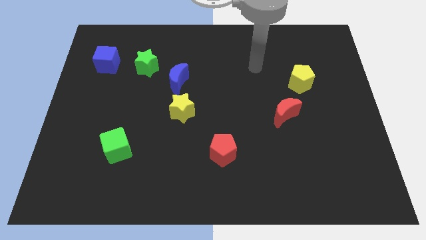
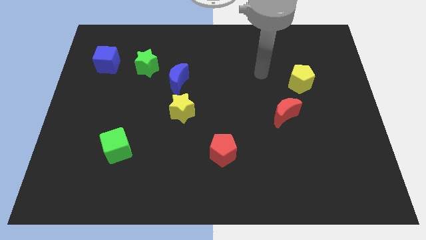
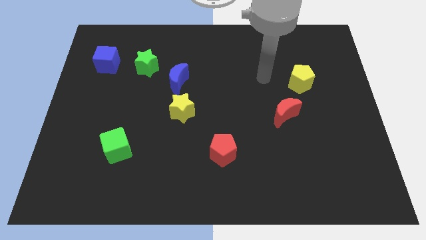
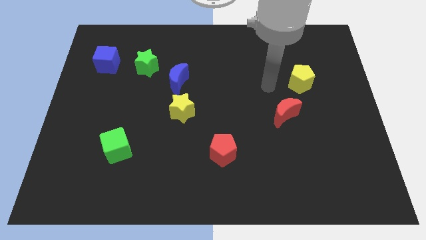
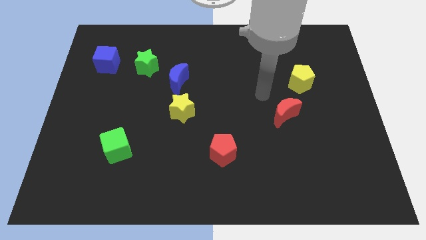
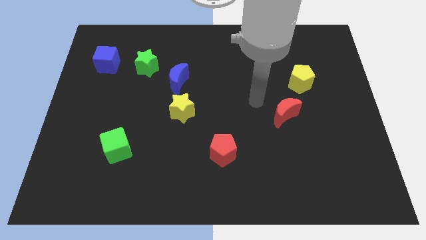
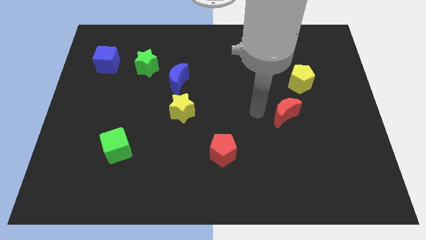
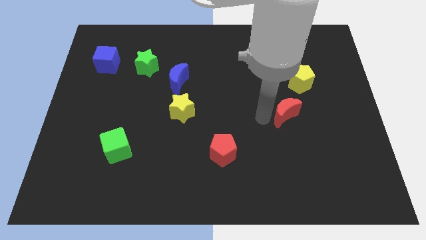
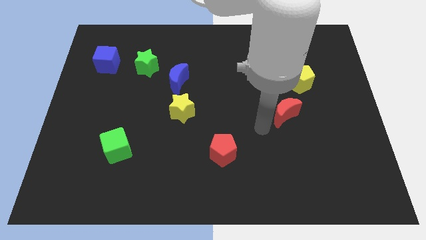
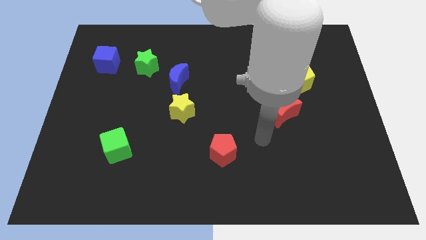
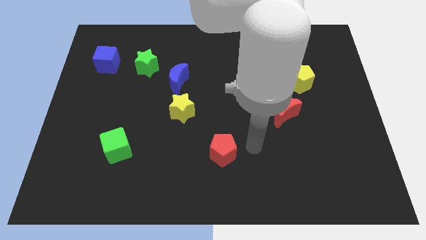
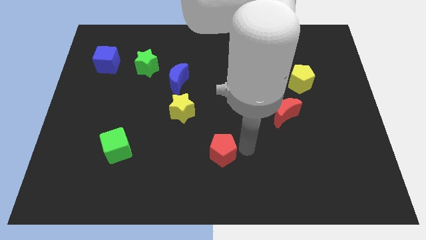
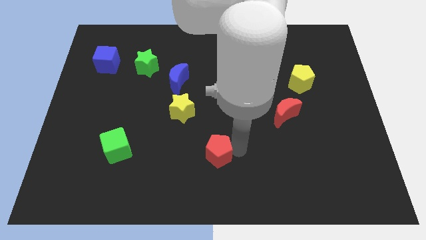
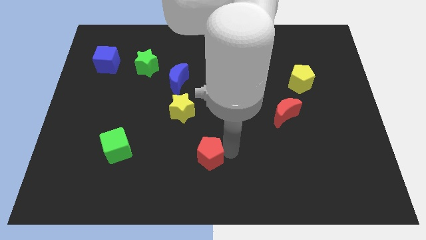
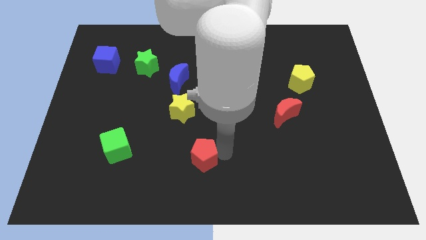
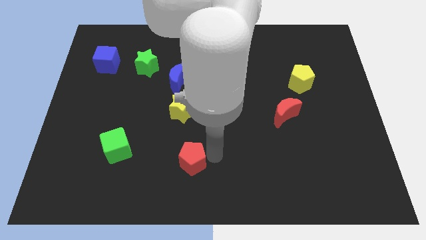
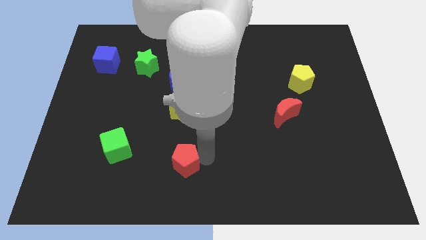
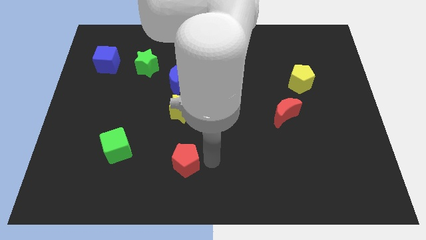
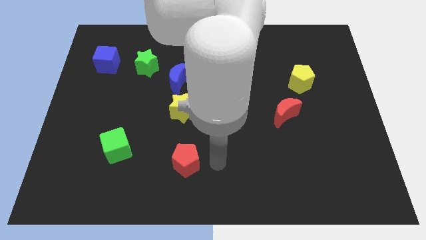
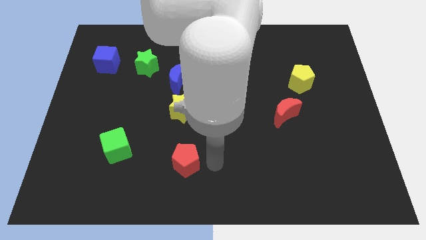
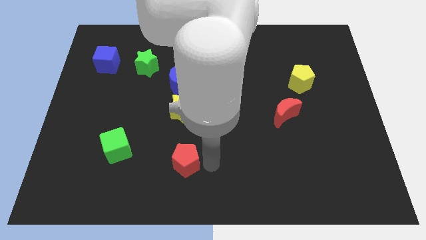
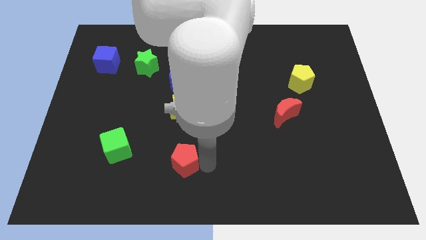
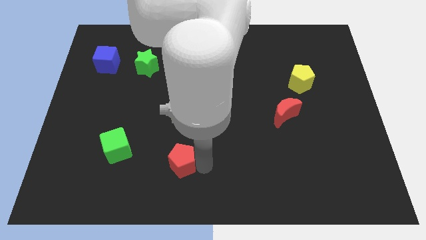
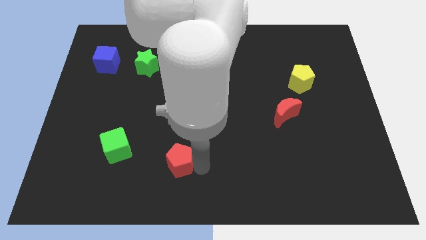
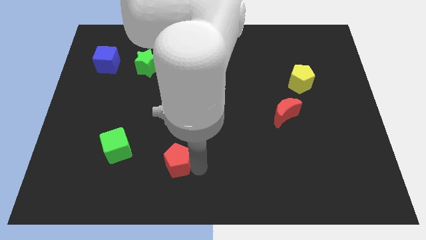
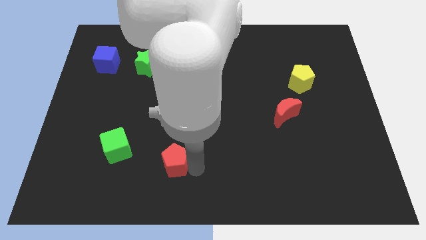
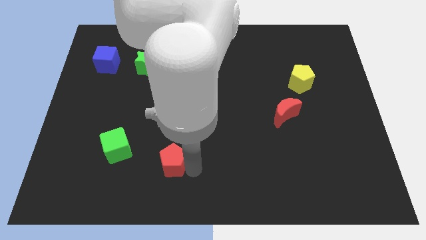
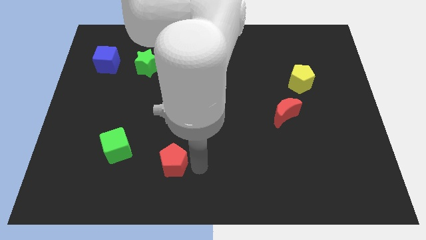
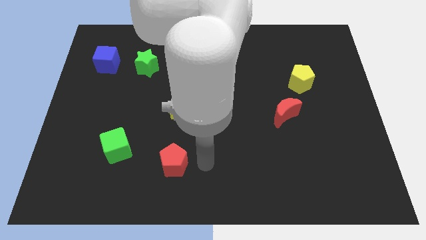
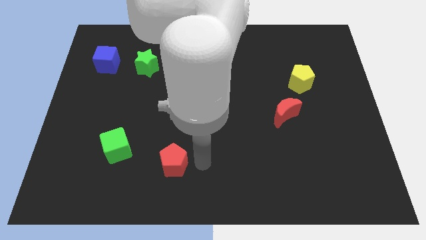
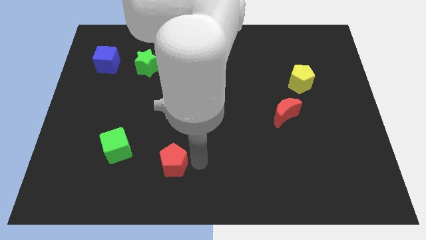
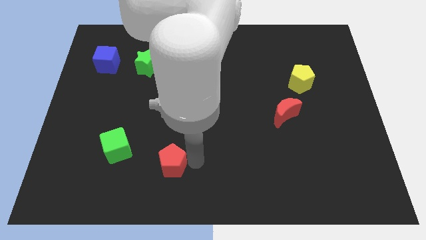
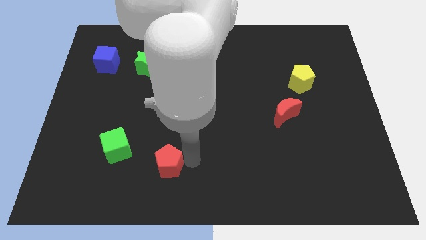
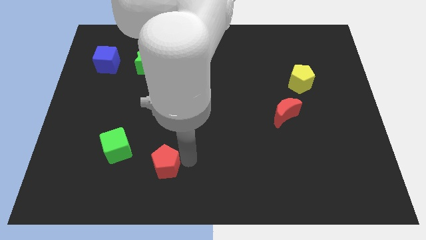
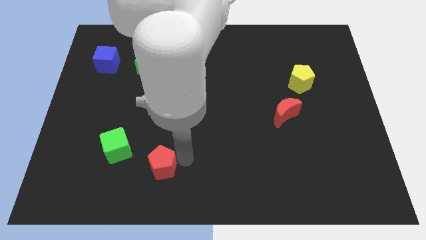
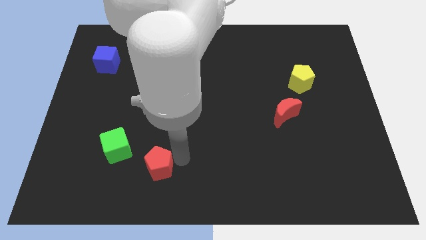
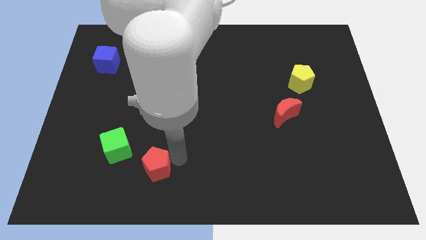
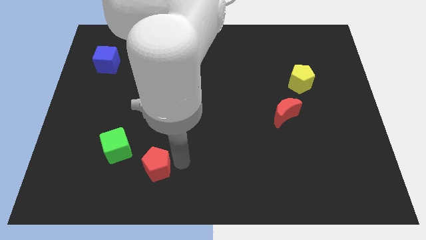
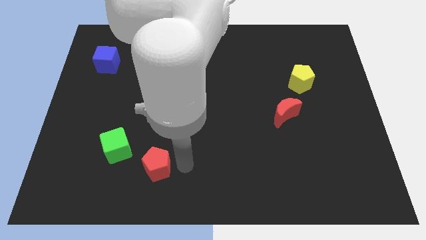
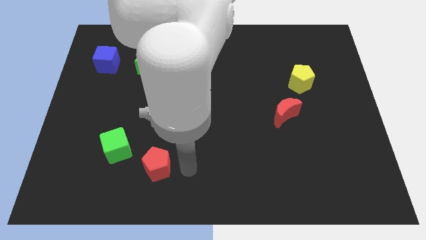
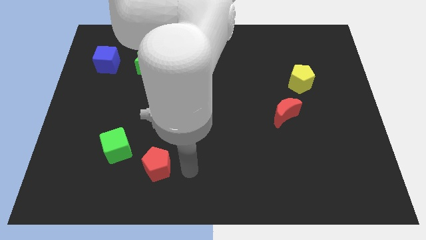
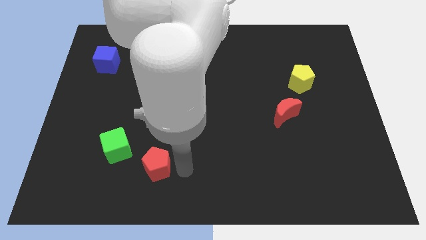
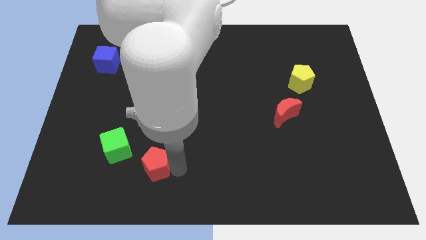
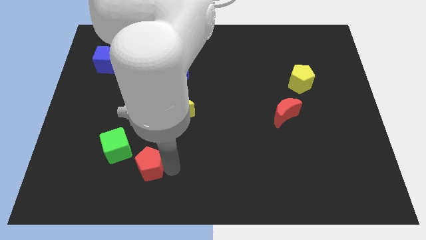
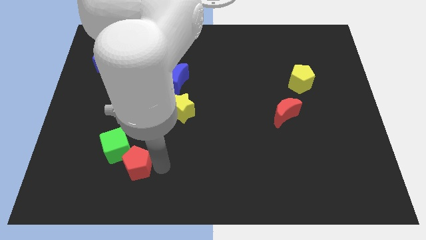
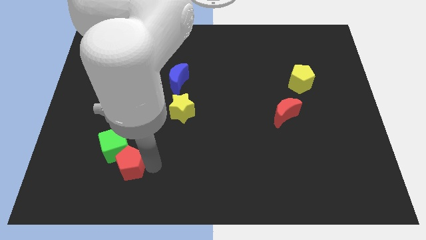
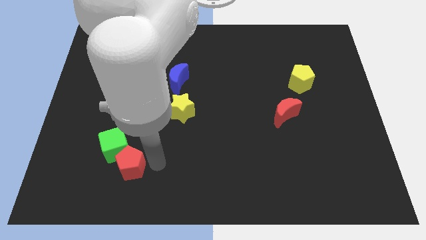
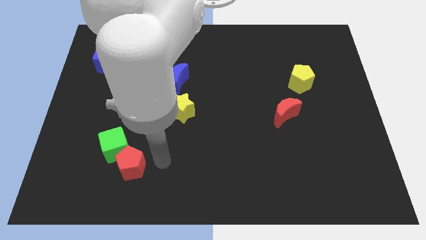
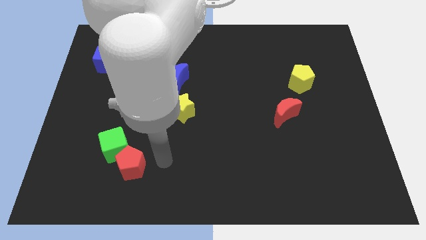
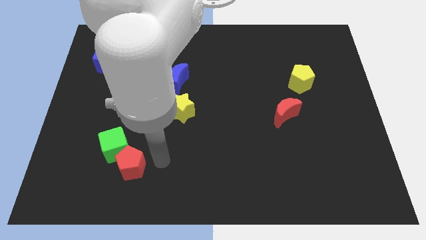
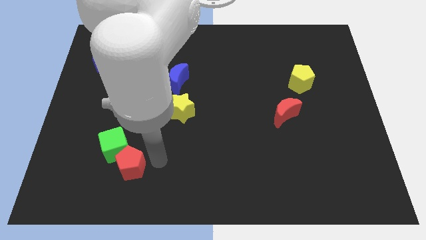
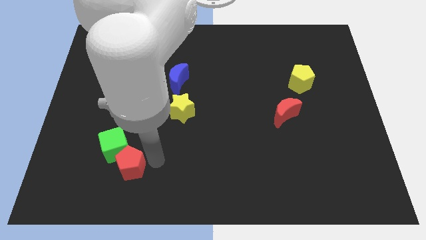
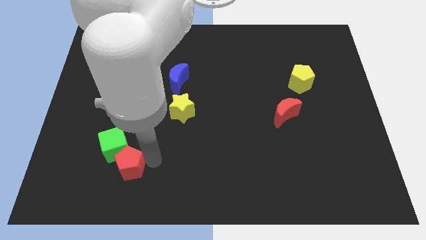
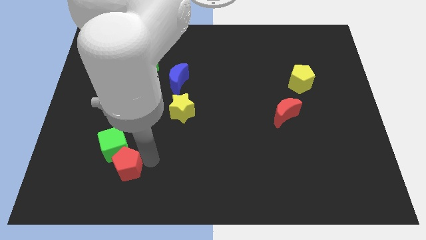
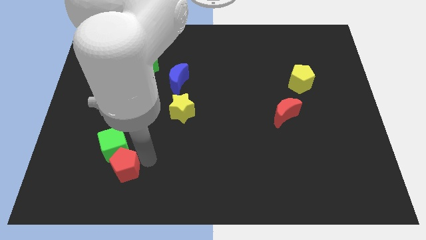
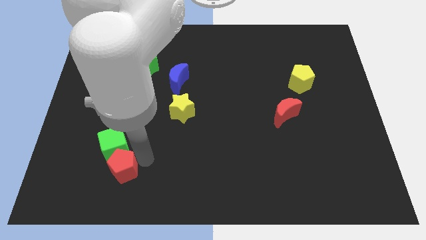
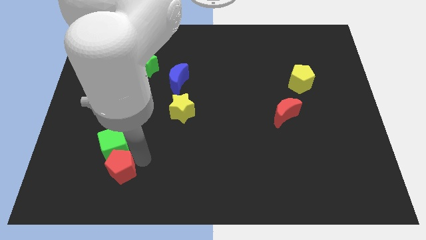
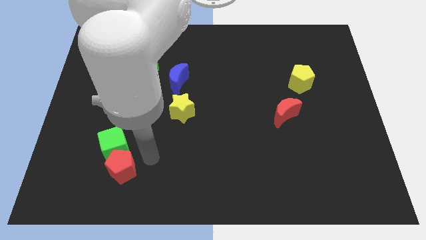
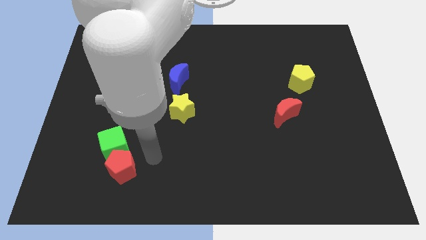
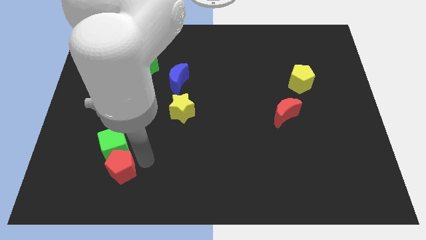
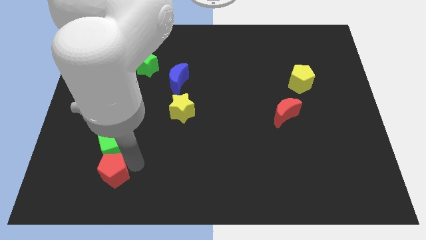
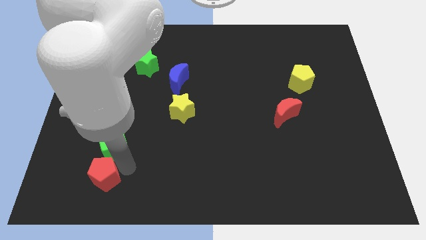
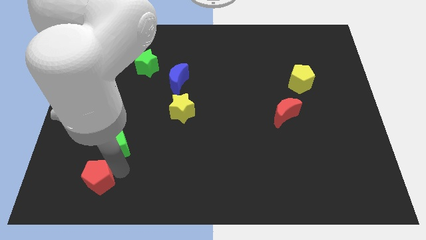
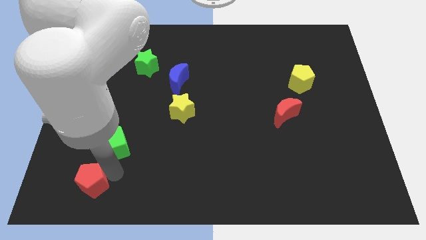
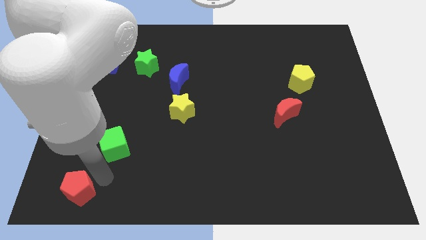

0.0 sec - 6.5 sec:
slide the red pentagon to the bottom left of the board
